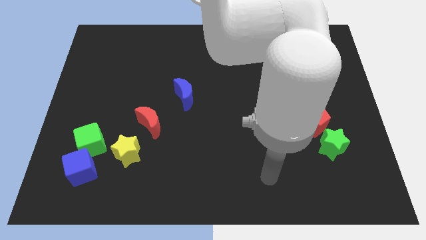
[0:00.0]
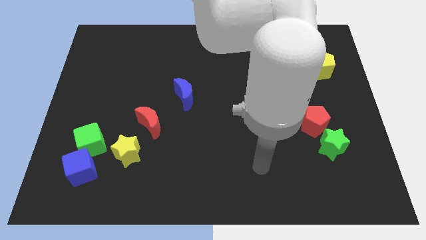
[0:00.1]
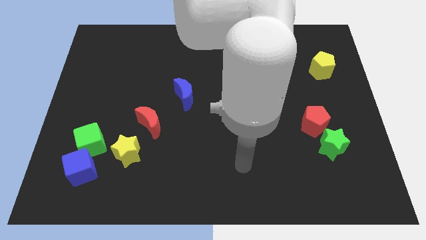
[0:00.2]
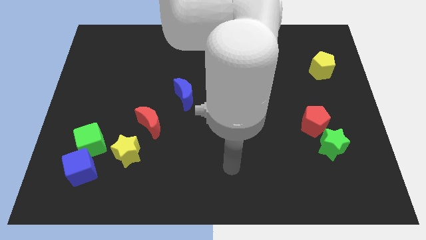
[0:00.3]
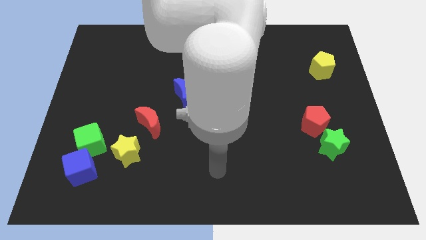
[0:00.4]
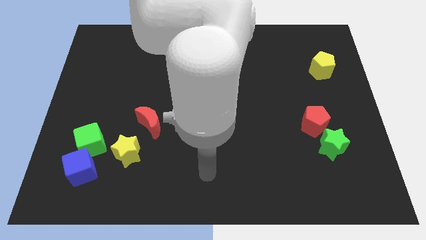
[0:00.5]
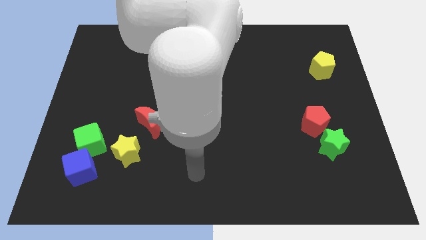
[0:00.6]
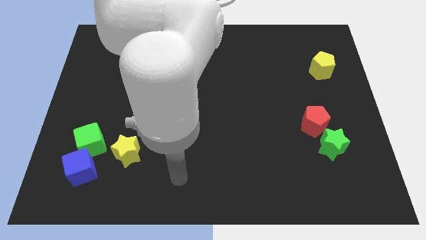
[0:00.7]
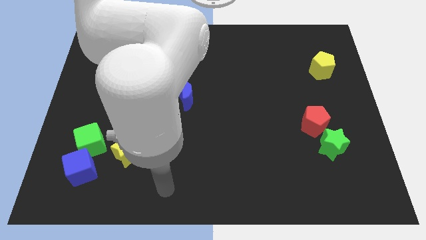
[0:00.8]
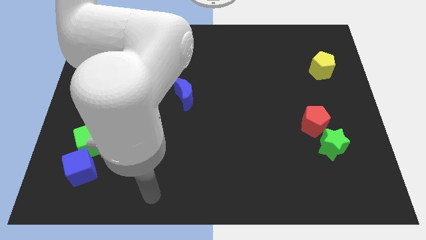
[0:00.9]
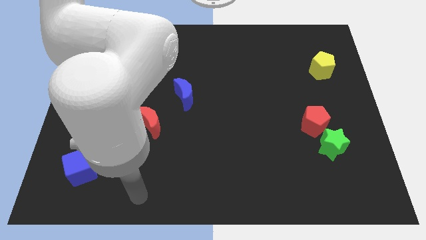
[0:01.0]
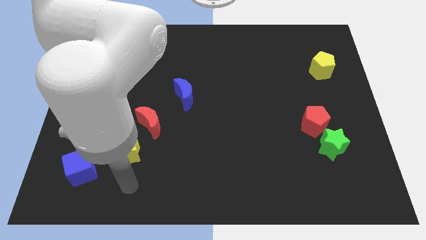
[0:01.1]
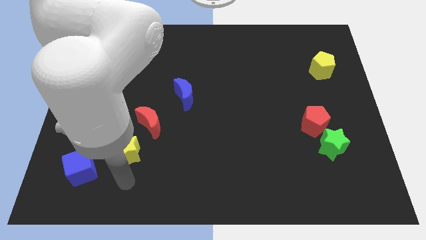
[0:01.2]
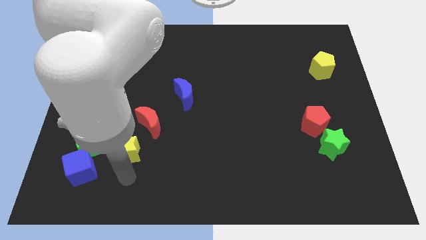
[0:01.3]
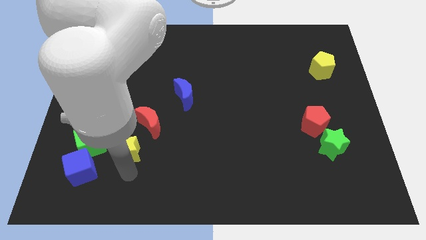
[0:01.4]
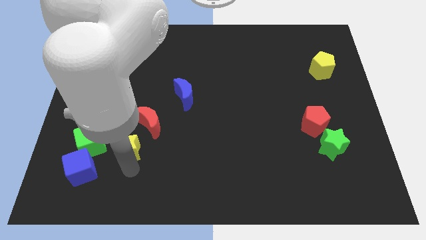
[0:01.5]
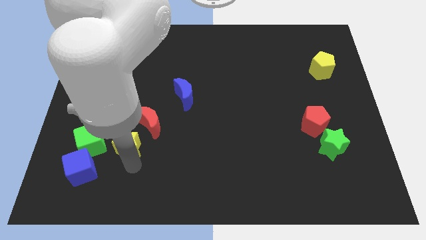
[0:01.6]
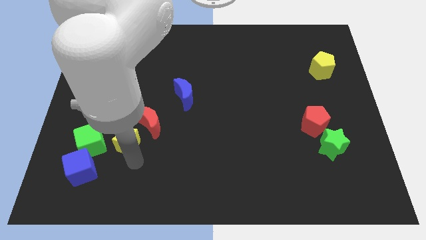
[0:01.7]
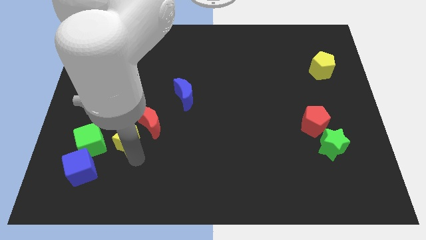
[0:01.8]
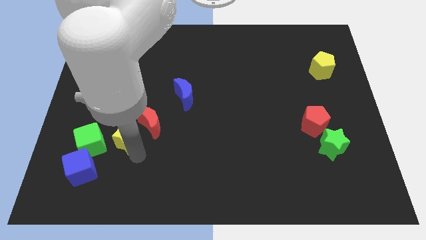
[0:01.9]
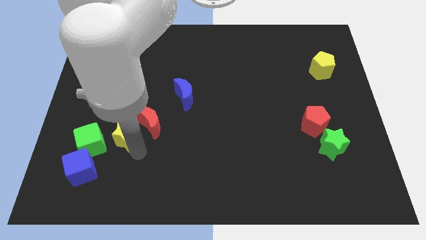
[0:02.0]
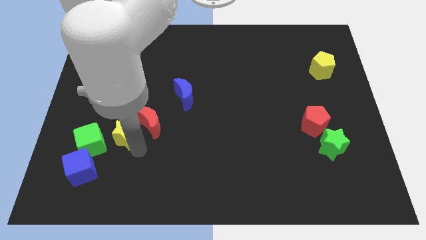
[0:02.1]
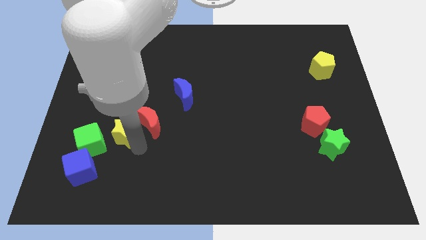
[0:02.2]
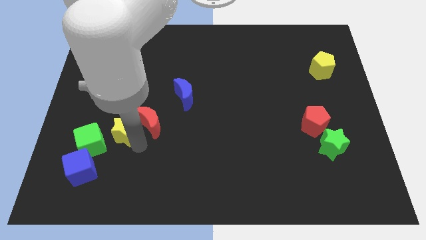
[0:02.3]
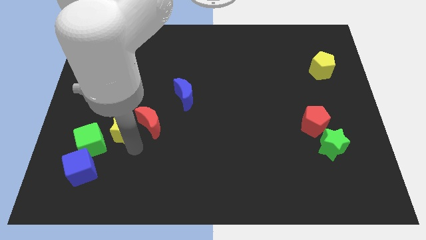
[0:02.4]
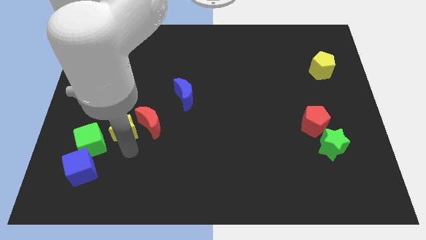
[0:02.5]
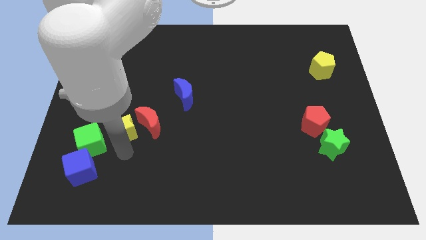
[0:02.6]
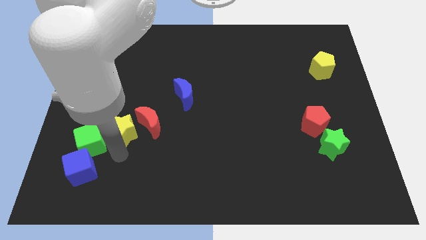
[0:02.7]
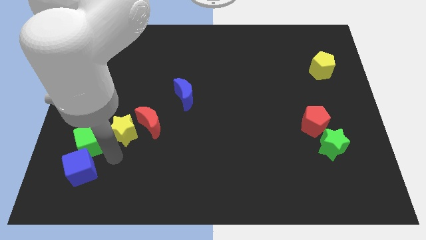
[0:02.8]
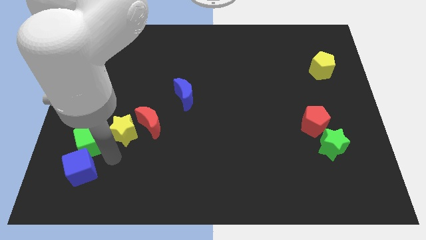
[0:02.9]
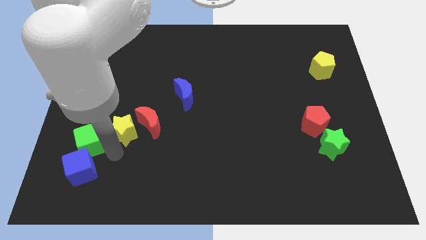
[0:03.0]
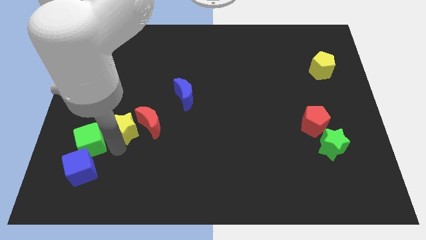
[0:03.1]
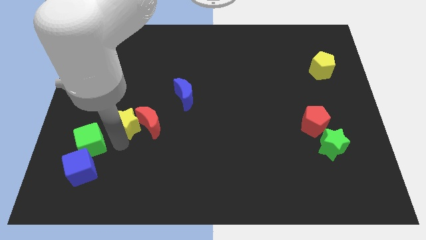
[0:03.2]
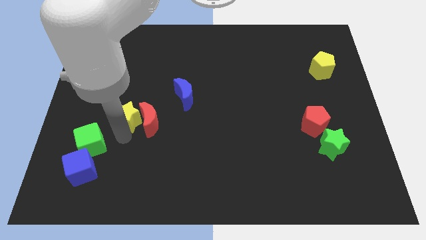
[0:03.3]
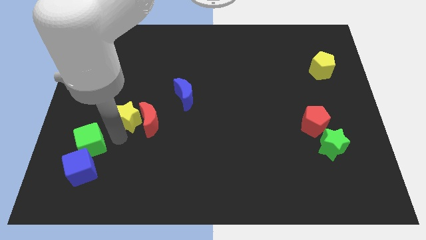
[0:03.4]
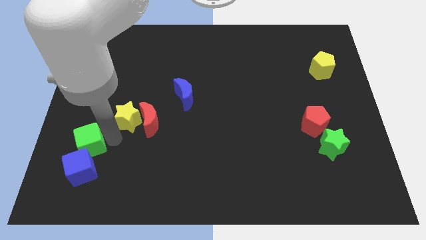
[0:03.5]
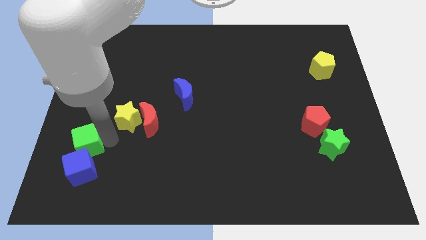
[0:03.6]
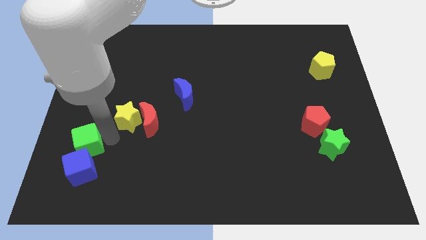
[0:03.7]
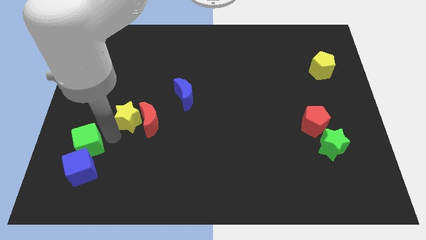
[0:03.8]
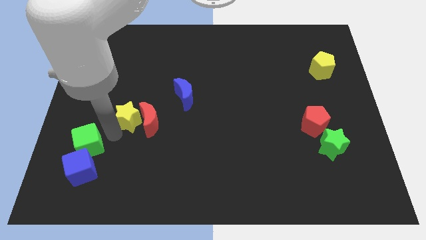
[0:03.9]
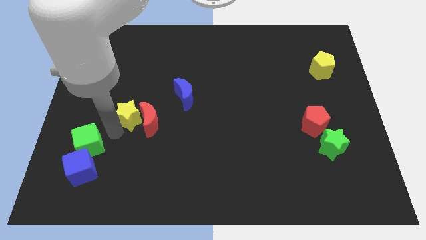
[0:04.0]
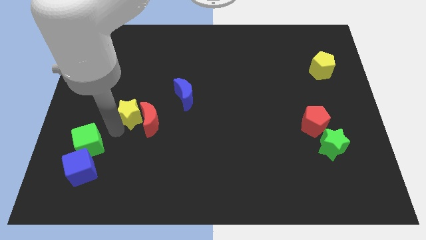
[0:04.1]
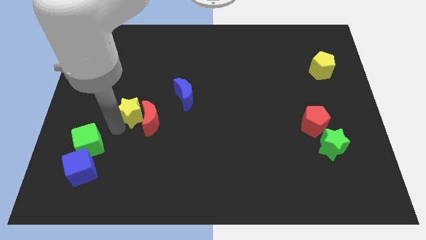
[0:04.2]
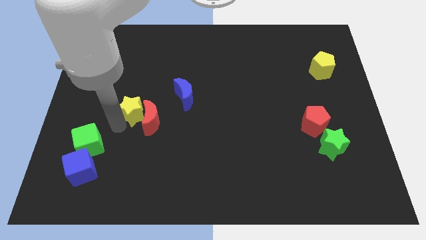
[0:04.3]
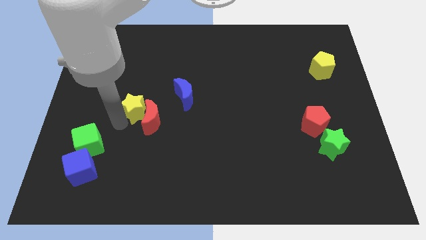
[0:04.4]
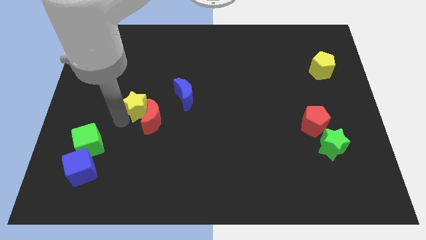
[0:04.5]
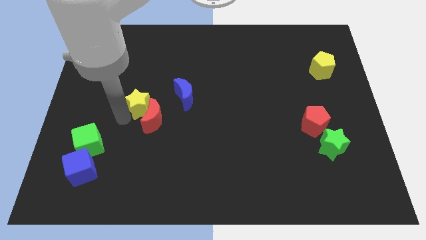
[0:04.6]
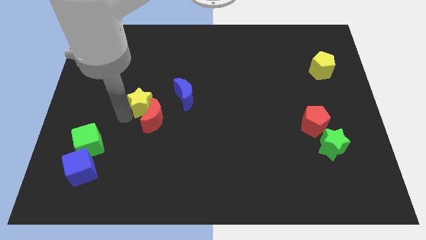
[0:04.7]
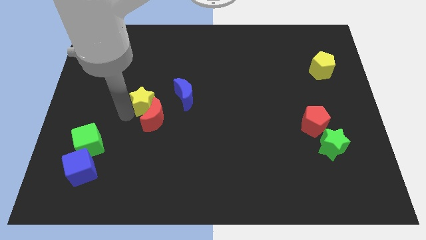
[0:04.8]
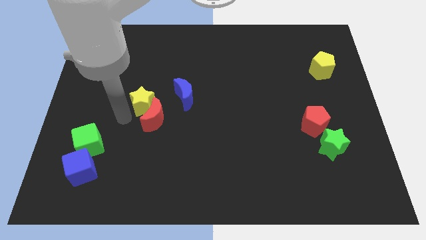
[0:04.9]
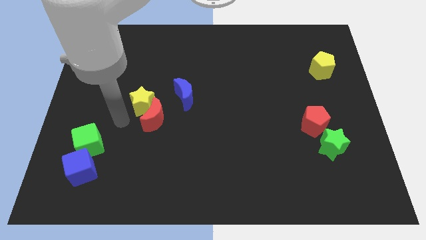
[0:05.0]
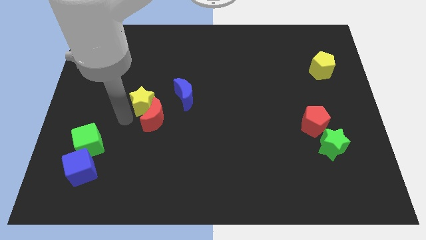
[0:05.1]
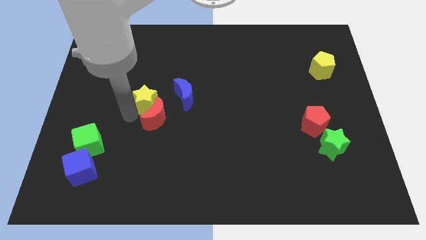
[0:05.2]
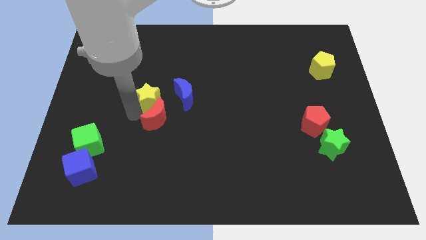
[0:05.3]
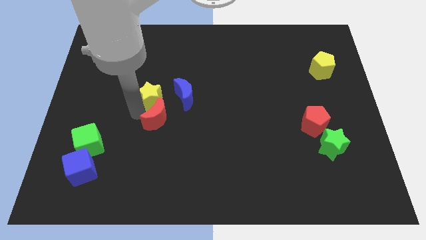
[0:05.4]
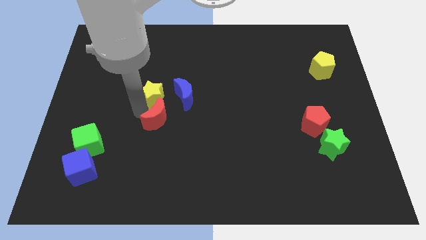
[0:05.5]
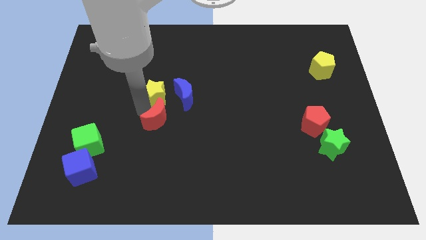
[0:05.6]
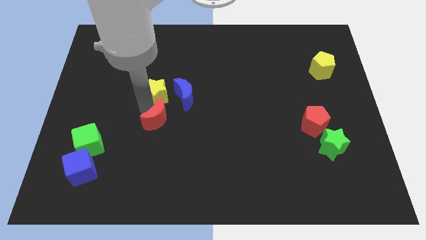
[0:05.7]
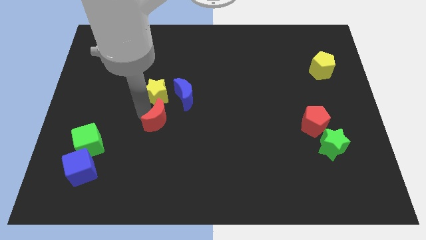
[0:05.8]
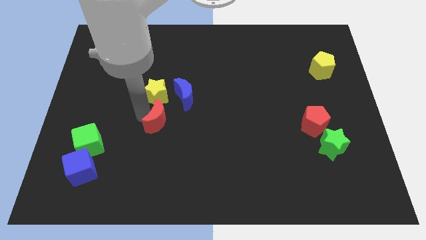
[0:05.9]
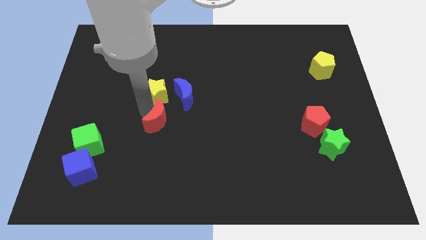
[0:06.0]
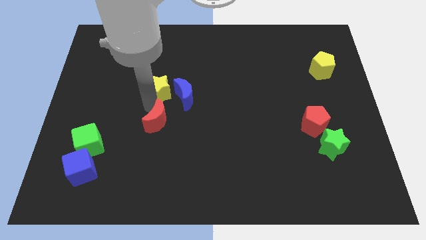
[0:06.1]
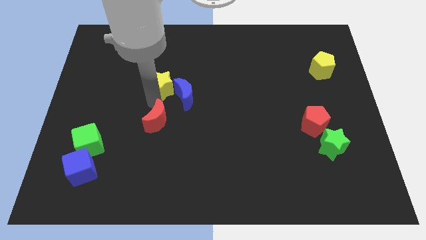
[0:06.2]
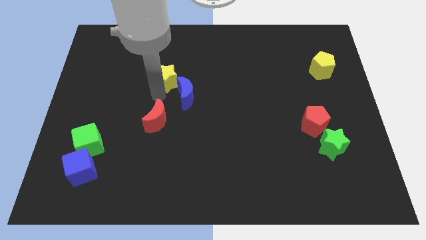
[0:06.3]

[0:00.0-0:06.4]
move the yellow star above the blue moon

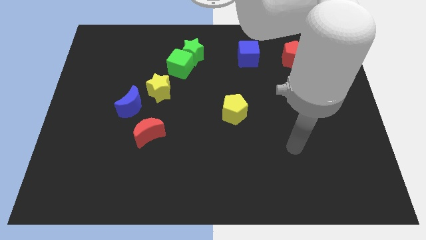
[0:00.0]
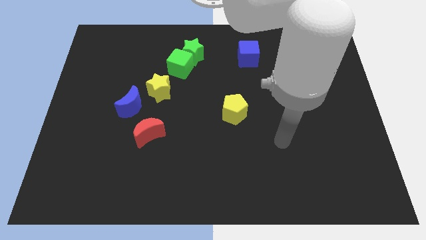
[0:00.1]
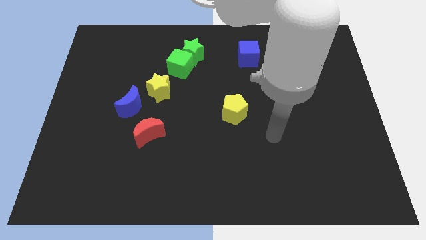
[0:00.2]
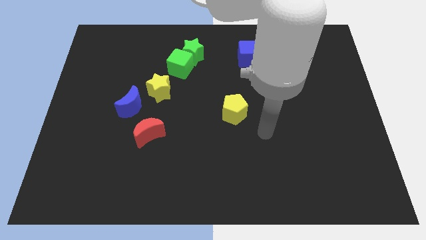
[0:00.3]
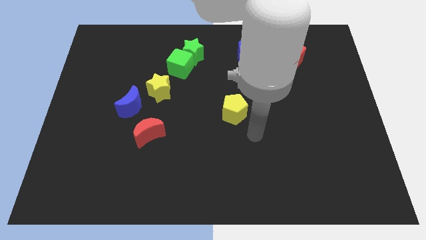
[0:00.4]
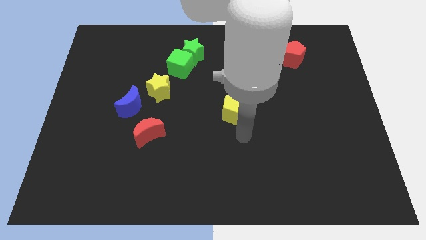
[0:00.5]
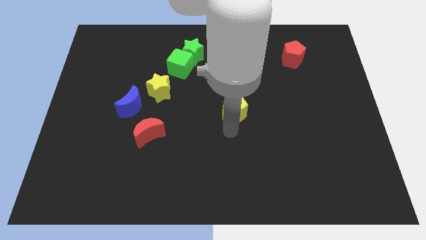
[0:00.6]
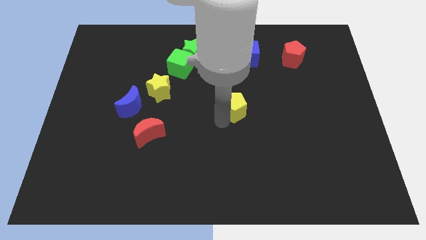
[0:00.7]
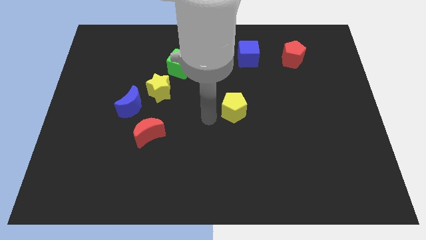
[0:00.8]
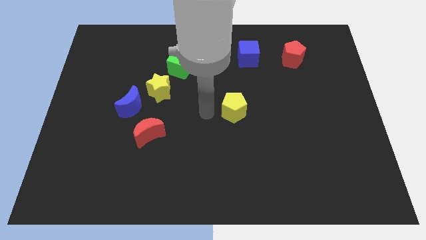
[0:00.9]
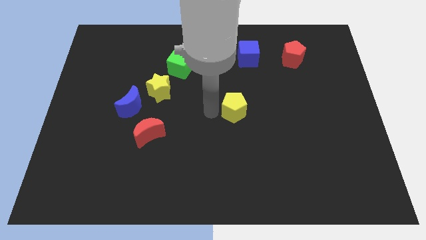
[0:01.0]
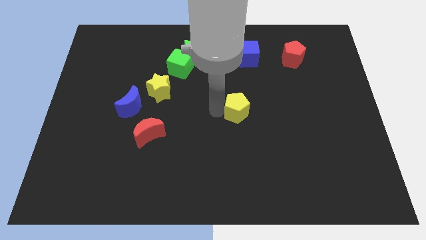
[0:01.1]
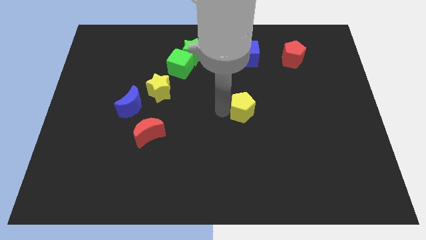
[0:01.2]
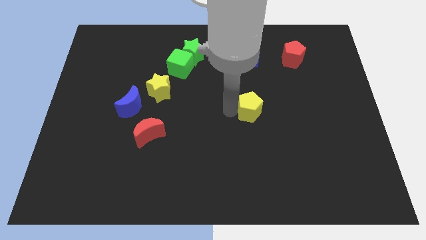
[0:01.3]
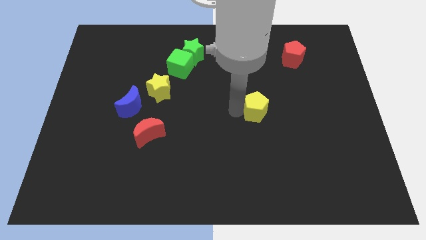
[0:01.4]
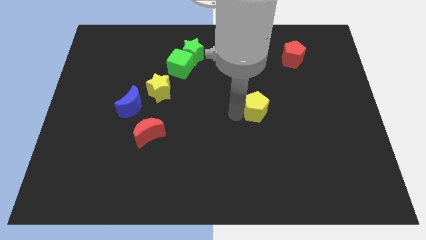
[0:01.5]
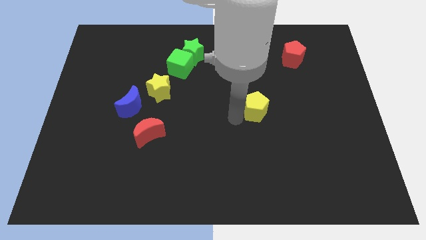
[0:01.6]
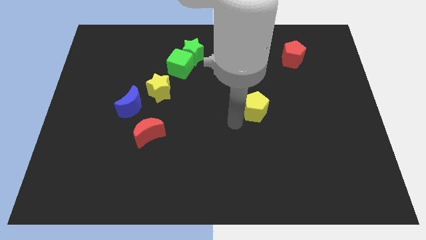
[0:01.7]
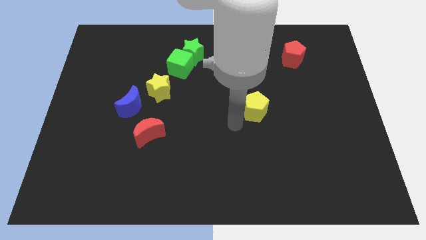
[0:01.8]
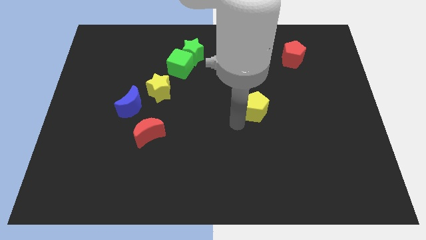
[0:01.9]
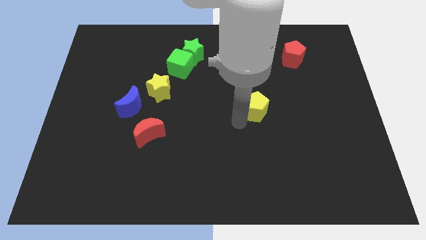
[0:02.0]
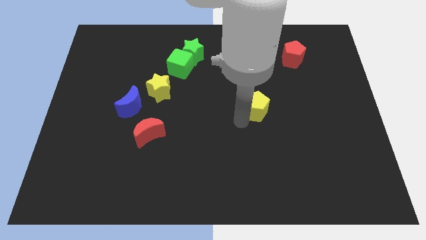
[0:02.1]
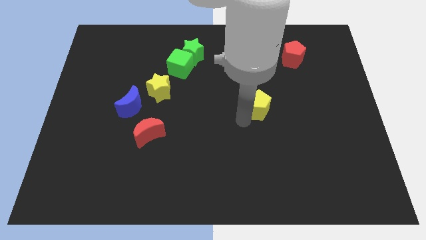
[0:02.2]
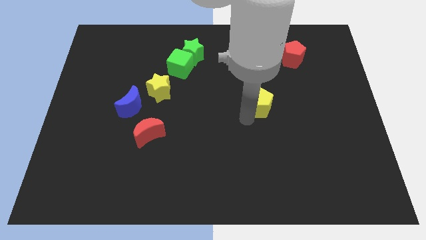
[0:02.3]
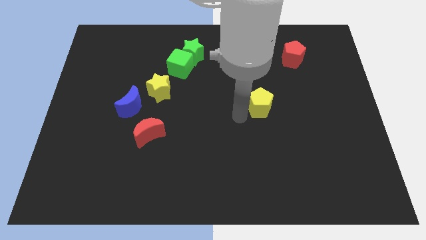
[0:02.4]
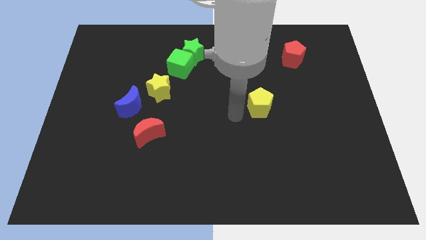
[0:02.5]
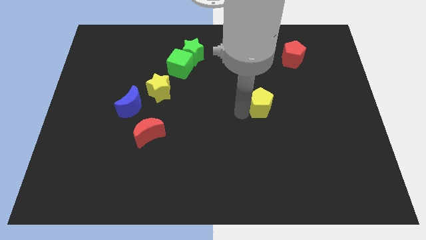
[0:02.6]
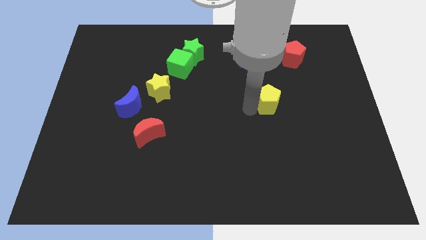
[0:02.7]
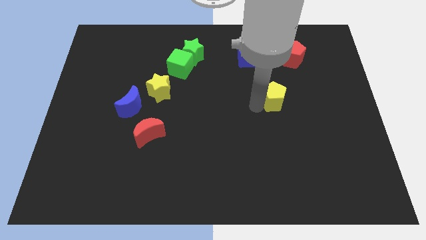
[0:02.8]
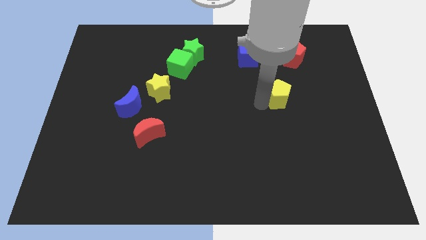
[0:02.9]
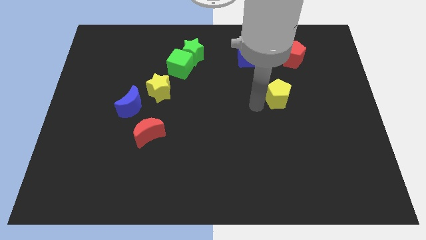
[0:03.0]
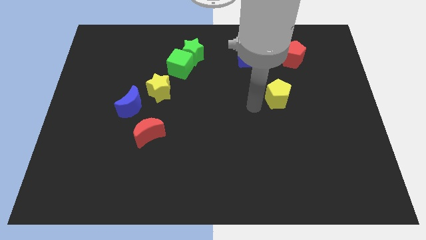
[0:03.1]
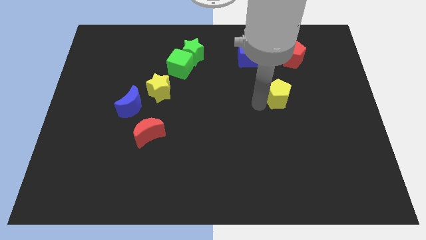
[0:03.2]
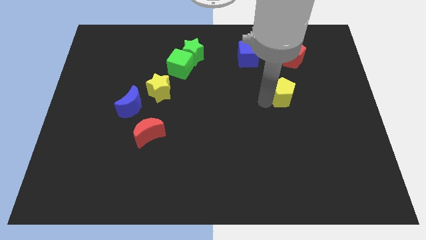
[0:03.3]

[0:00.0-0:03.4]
slide the yellow pentagon to the bottom of the red pentagon
